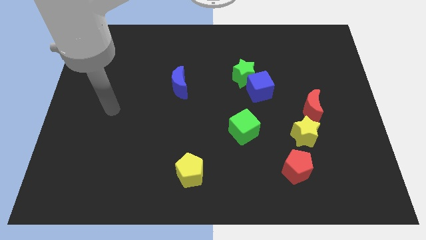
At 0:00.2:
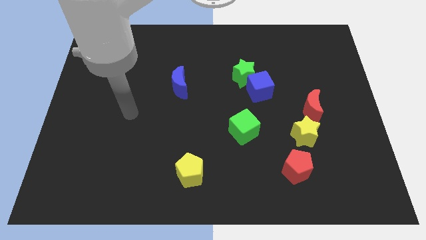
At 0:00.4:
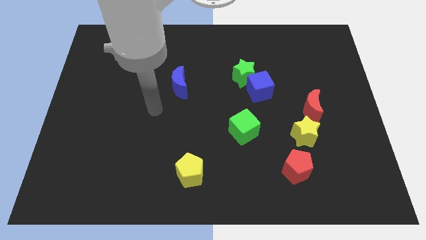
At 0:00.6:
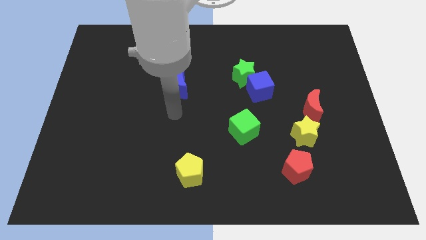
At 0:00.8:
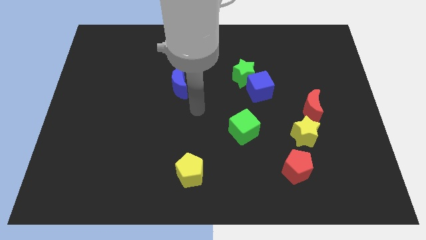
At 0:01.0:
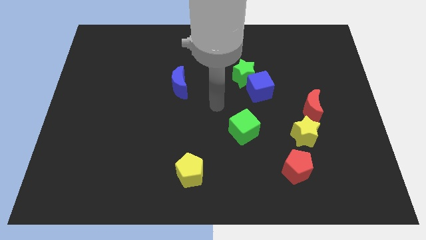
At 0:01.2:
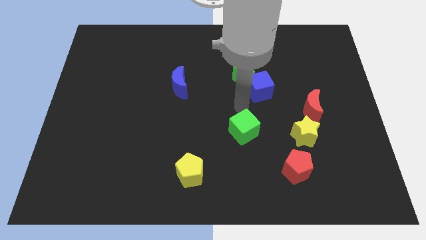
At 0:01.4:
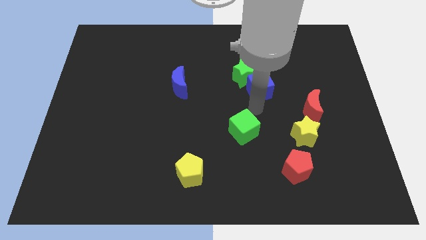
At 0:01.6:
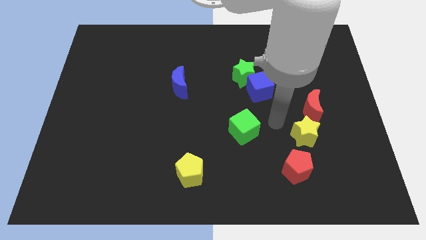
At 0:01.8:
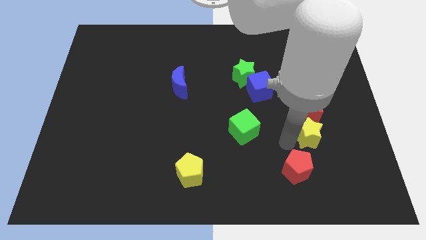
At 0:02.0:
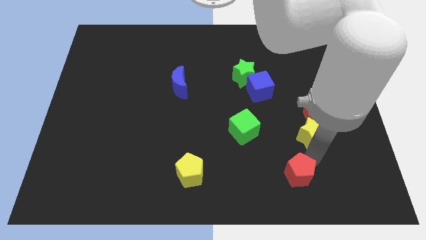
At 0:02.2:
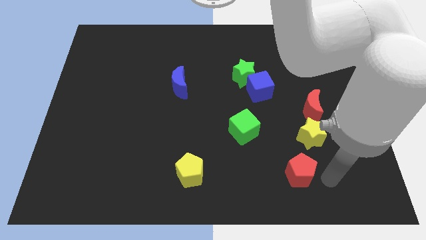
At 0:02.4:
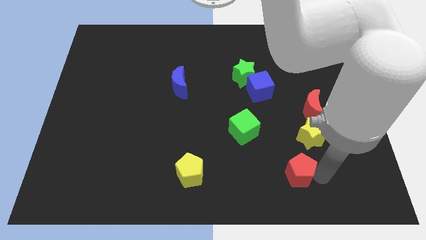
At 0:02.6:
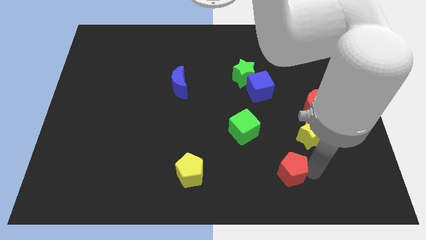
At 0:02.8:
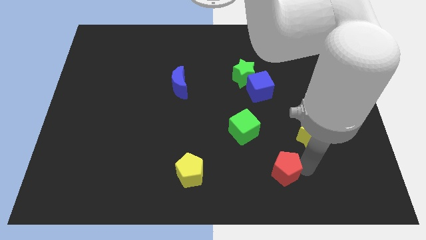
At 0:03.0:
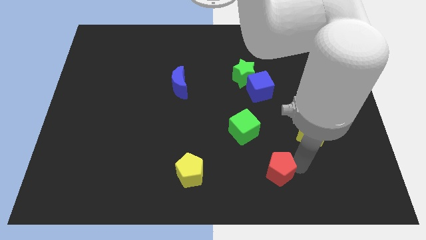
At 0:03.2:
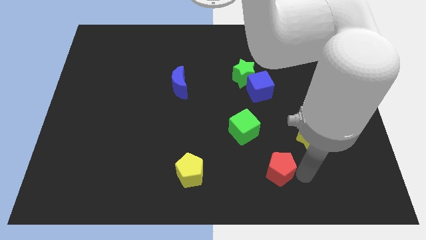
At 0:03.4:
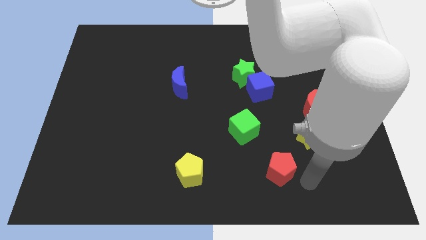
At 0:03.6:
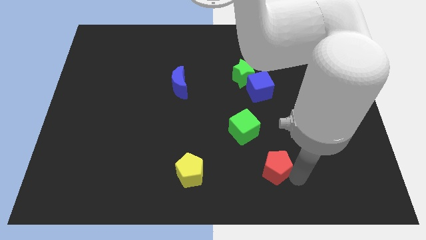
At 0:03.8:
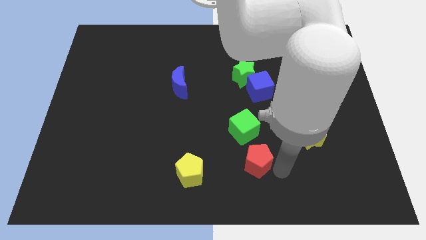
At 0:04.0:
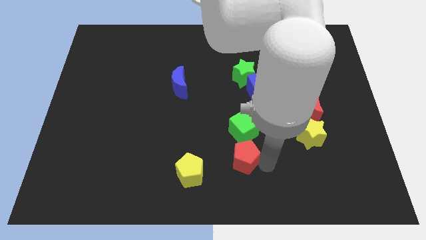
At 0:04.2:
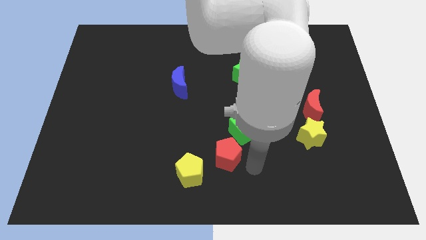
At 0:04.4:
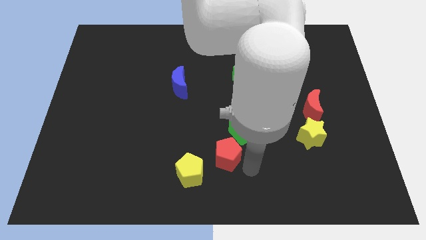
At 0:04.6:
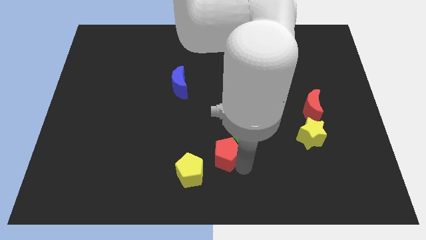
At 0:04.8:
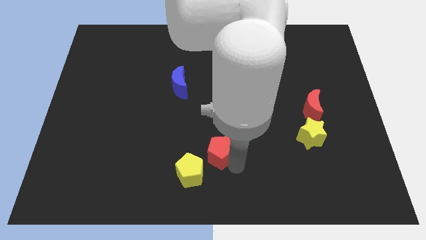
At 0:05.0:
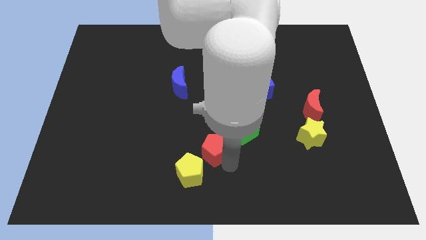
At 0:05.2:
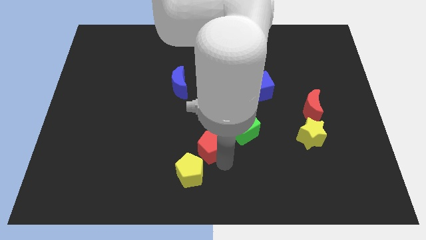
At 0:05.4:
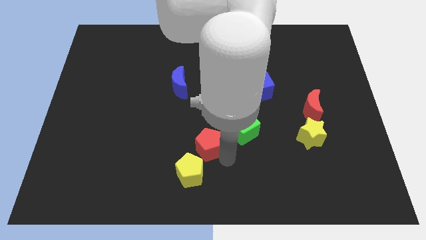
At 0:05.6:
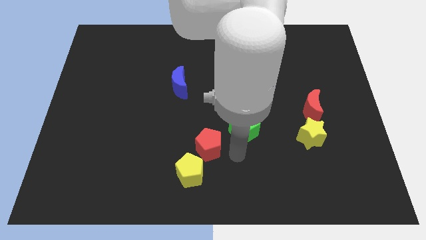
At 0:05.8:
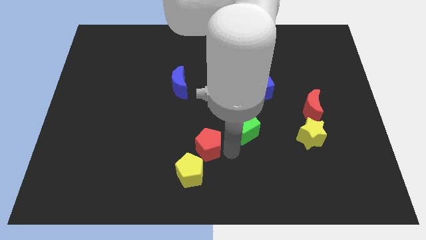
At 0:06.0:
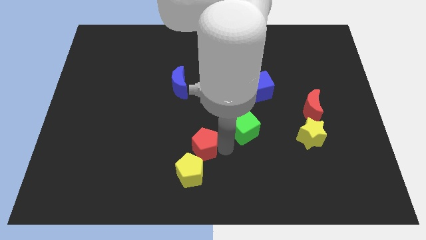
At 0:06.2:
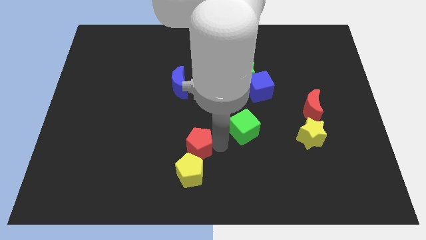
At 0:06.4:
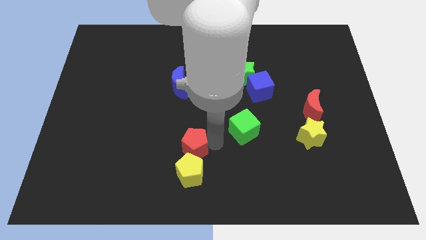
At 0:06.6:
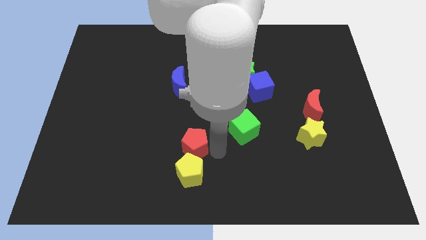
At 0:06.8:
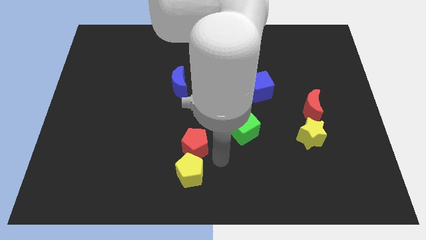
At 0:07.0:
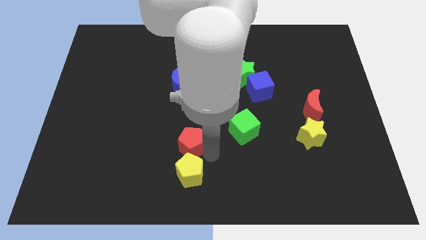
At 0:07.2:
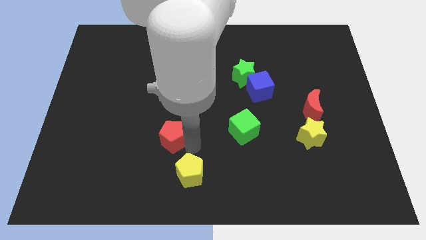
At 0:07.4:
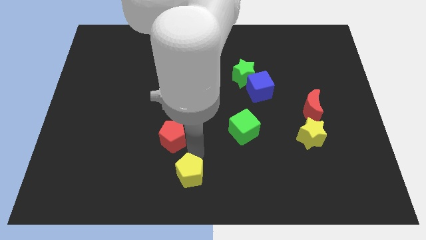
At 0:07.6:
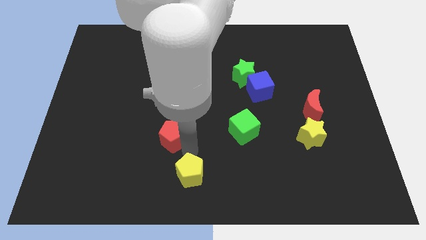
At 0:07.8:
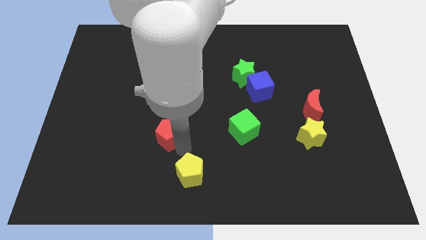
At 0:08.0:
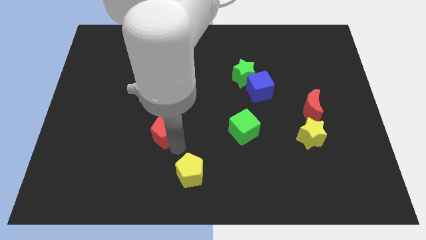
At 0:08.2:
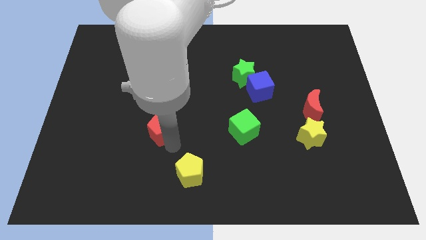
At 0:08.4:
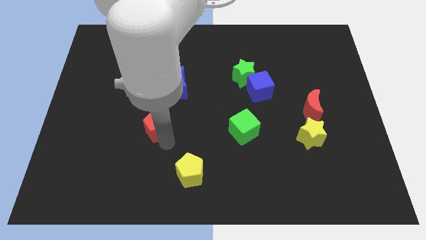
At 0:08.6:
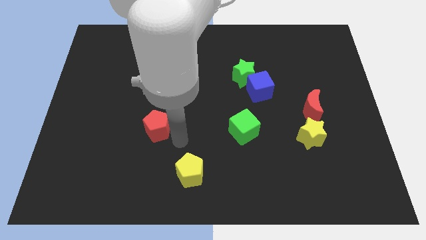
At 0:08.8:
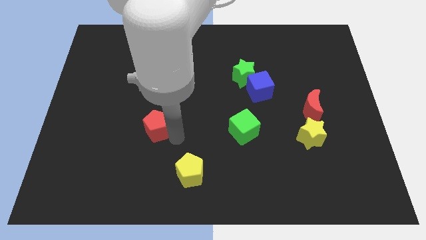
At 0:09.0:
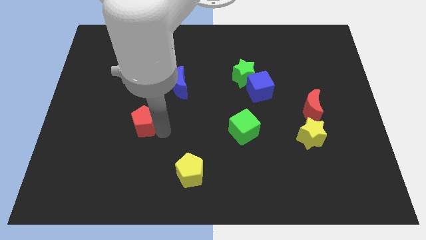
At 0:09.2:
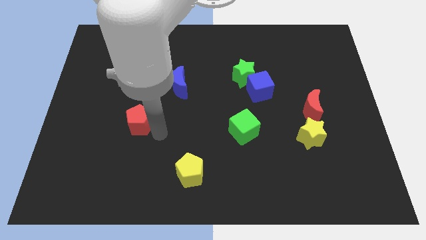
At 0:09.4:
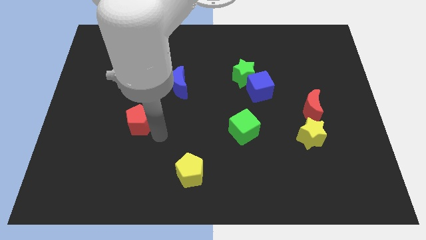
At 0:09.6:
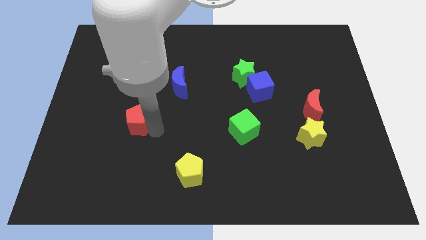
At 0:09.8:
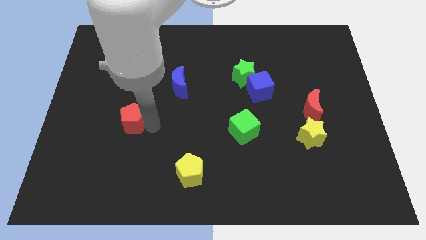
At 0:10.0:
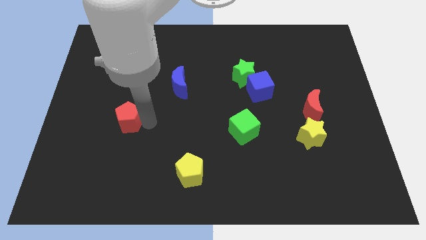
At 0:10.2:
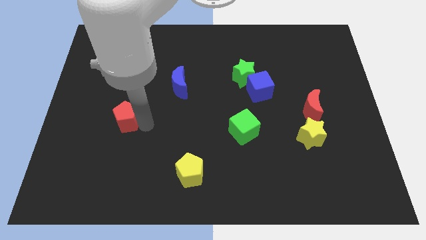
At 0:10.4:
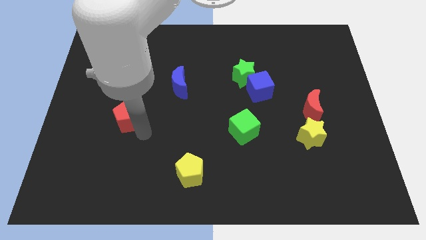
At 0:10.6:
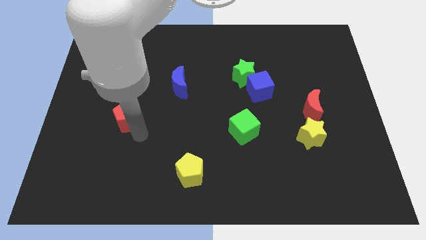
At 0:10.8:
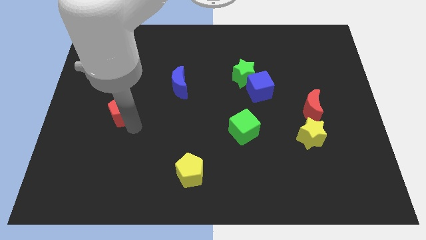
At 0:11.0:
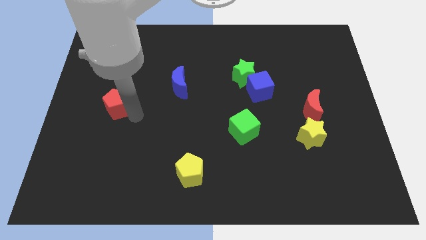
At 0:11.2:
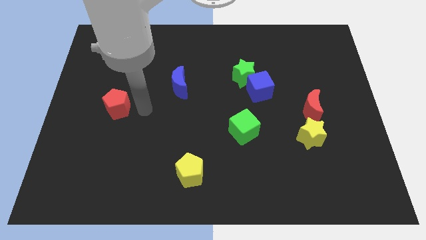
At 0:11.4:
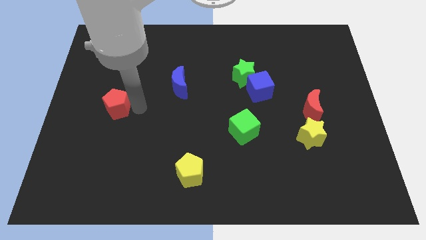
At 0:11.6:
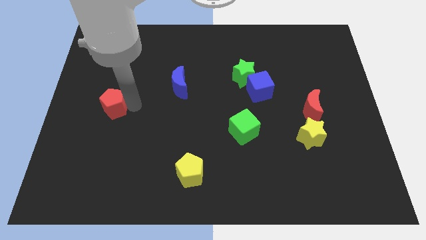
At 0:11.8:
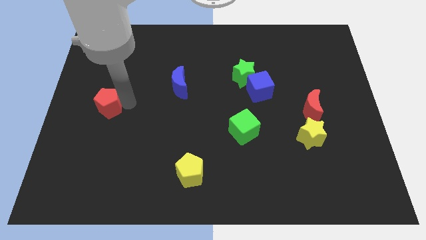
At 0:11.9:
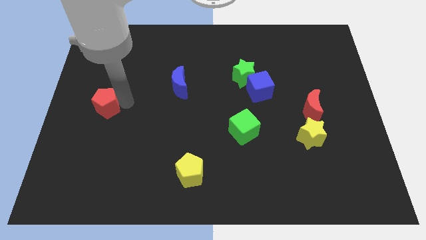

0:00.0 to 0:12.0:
move the red pentagon to the left side
